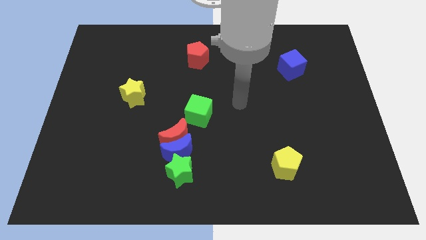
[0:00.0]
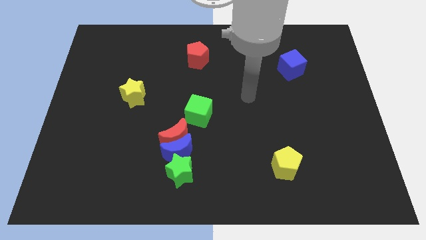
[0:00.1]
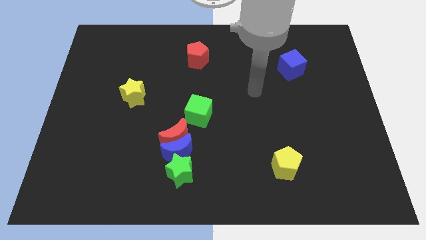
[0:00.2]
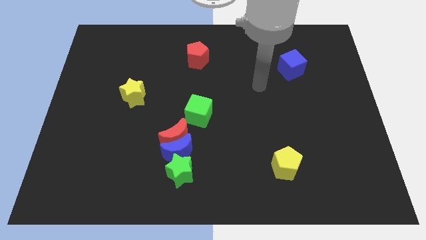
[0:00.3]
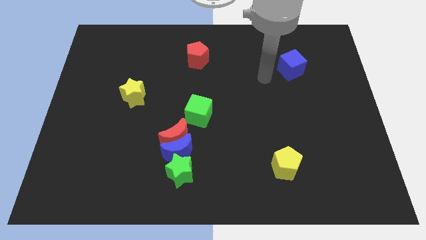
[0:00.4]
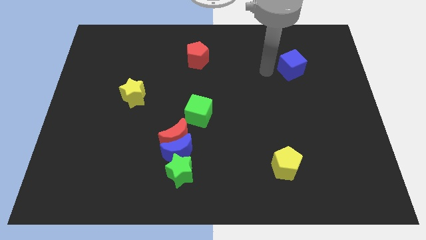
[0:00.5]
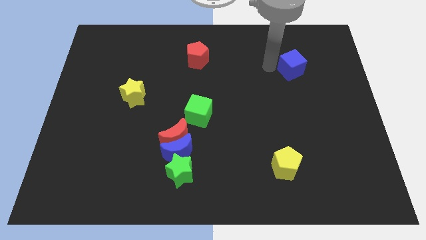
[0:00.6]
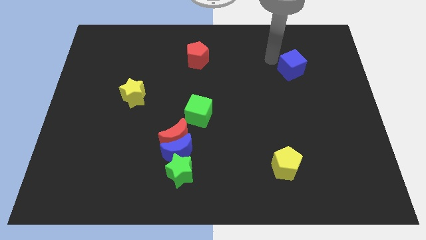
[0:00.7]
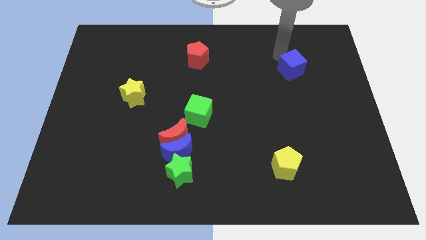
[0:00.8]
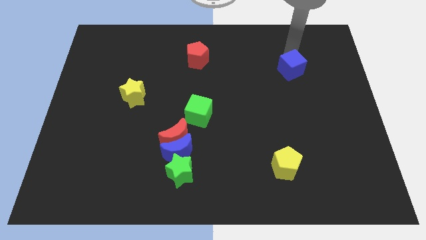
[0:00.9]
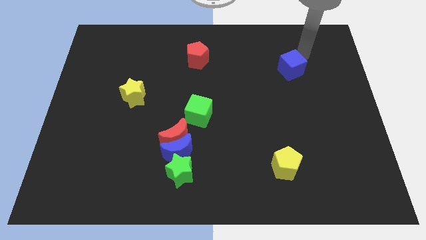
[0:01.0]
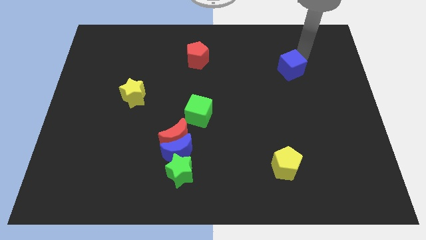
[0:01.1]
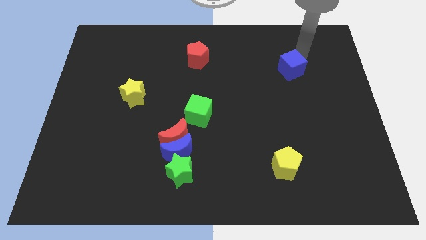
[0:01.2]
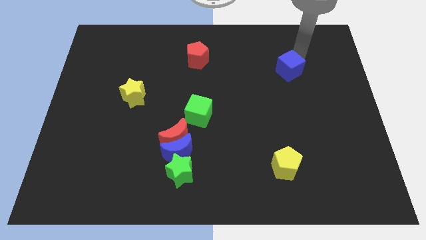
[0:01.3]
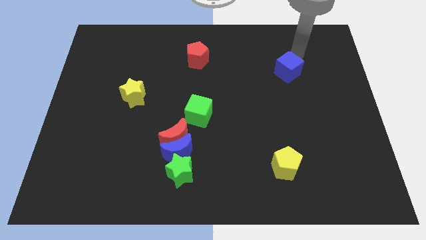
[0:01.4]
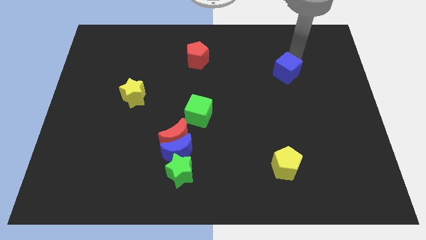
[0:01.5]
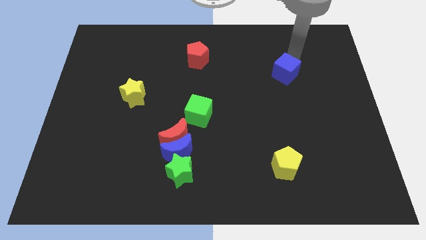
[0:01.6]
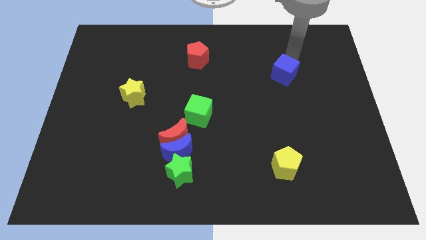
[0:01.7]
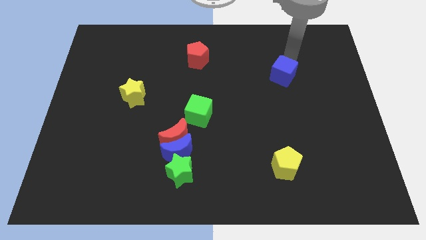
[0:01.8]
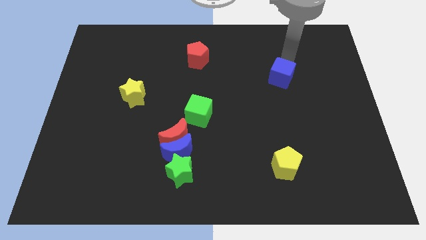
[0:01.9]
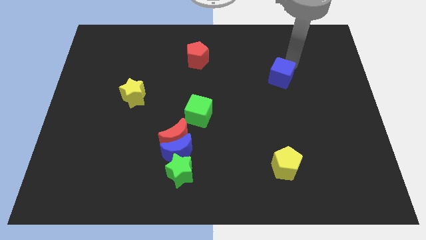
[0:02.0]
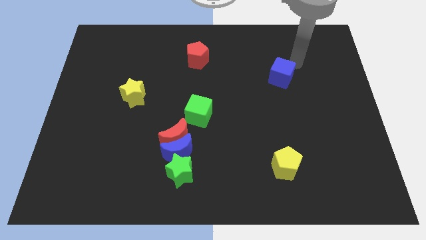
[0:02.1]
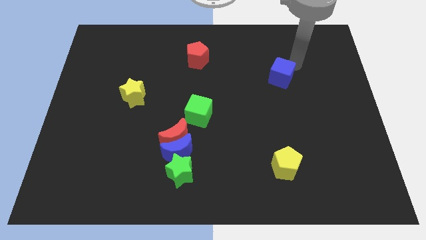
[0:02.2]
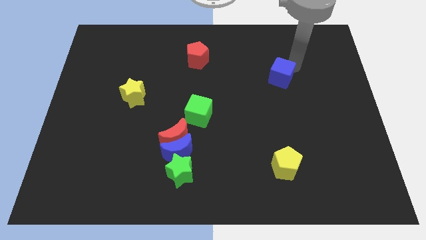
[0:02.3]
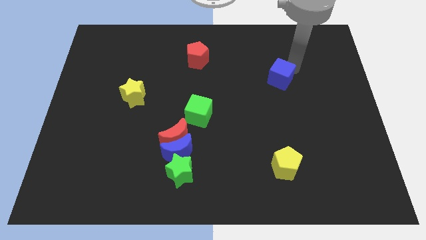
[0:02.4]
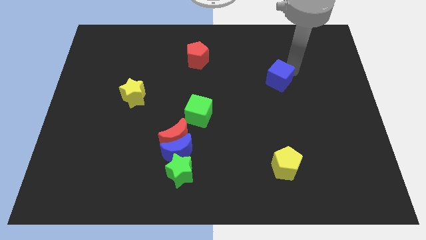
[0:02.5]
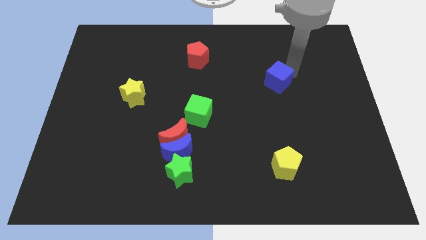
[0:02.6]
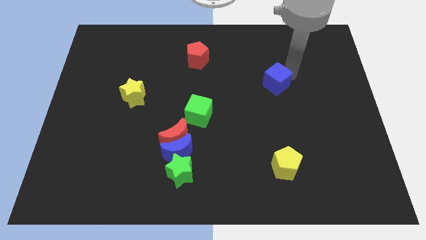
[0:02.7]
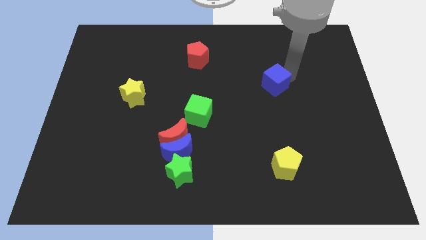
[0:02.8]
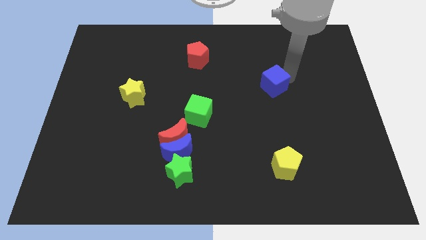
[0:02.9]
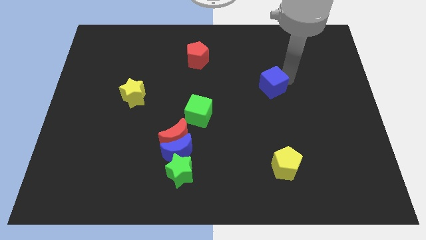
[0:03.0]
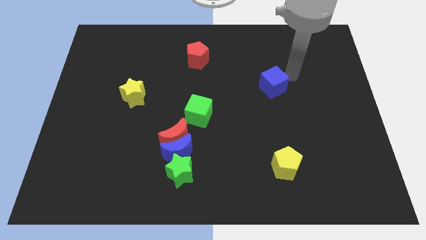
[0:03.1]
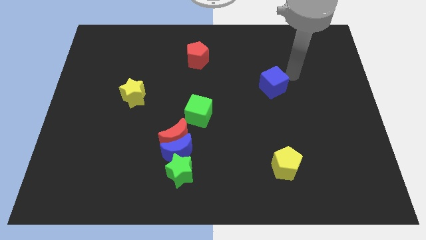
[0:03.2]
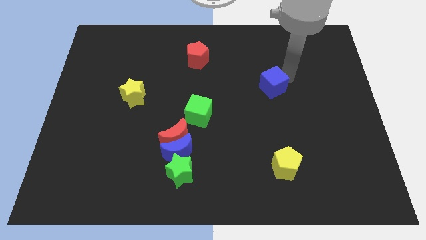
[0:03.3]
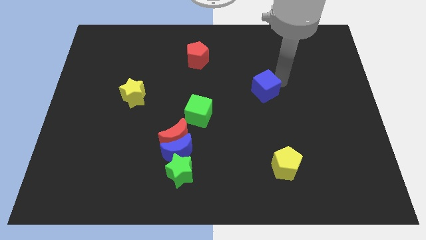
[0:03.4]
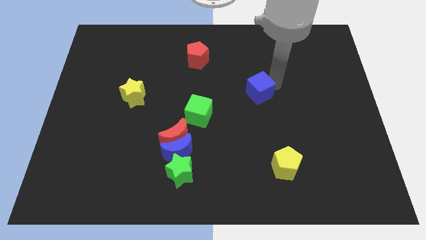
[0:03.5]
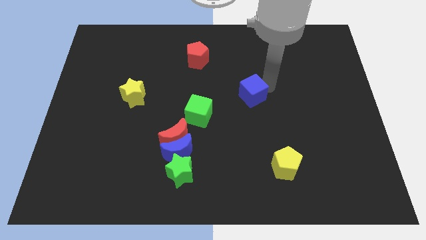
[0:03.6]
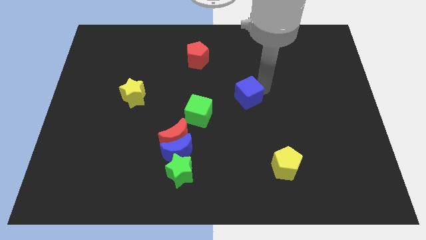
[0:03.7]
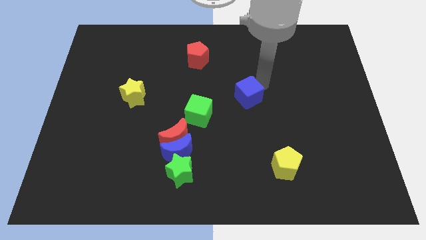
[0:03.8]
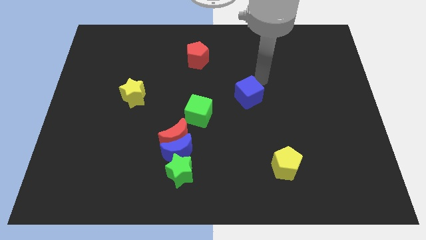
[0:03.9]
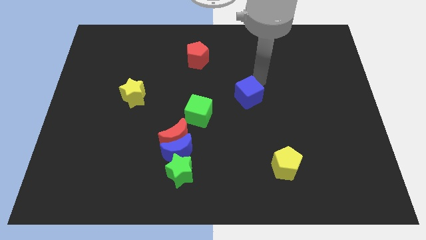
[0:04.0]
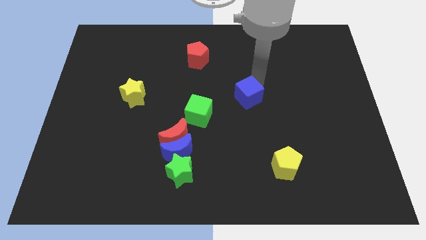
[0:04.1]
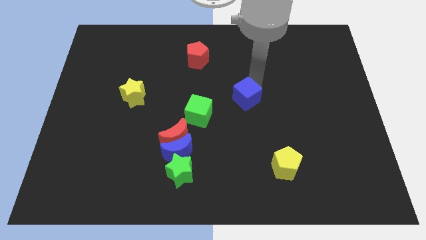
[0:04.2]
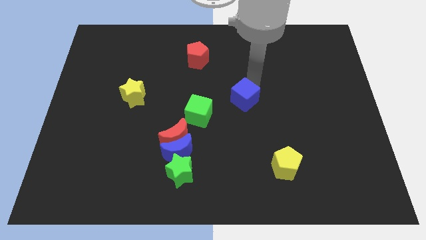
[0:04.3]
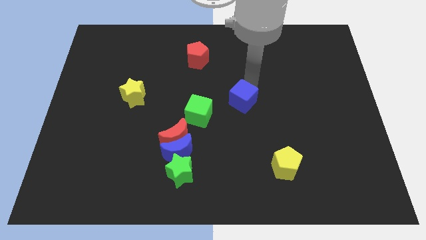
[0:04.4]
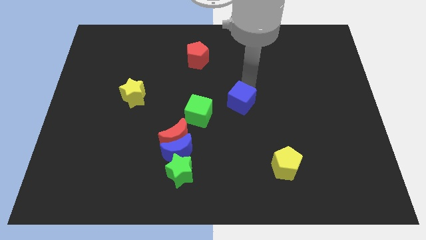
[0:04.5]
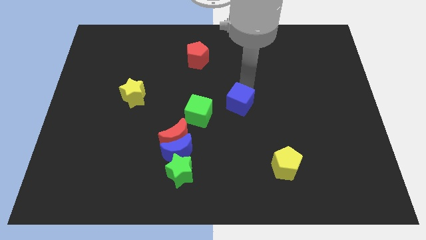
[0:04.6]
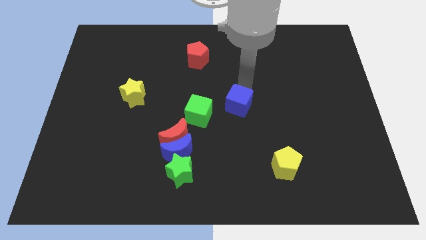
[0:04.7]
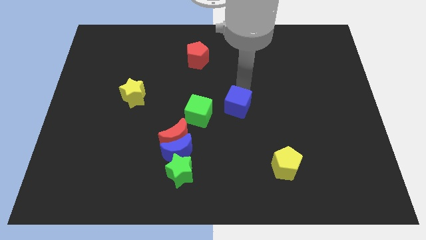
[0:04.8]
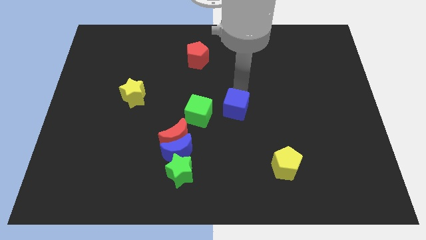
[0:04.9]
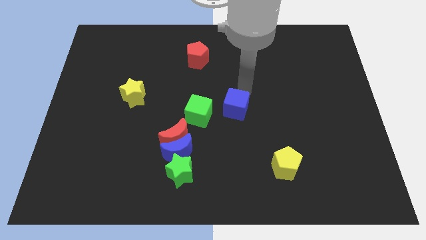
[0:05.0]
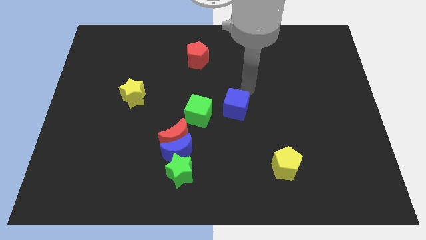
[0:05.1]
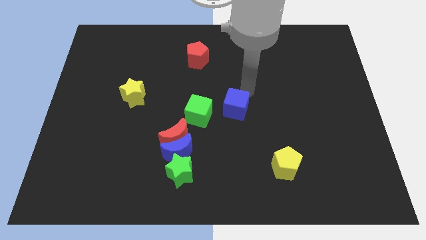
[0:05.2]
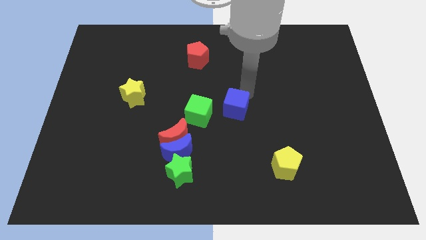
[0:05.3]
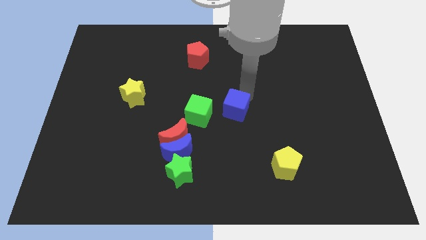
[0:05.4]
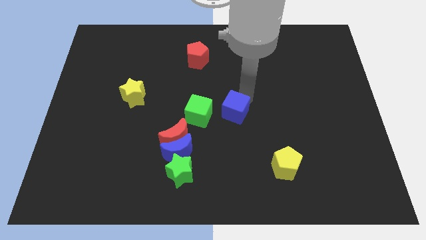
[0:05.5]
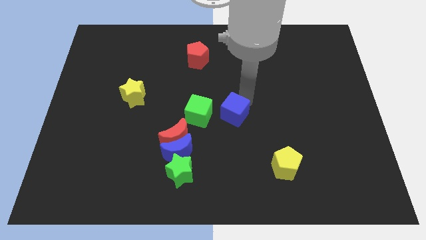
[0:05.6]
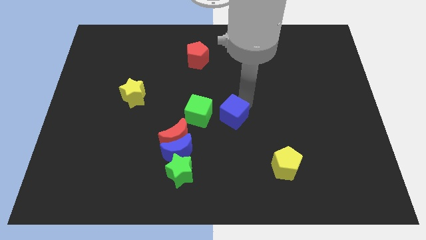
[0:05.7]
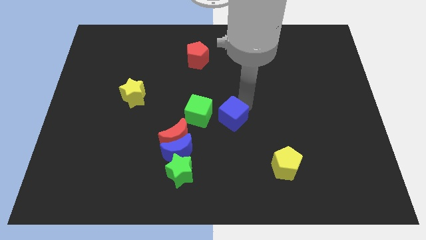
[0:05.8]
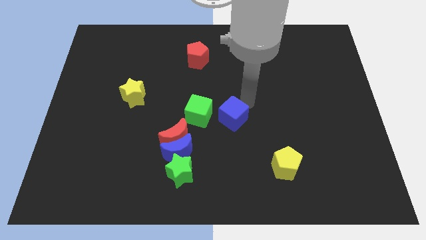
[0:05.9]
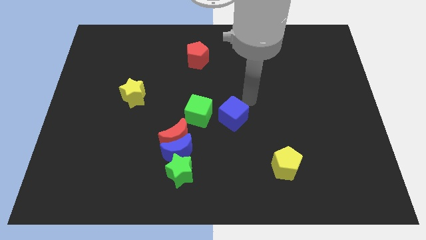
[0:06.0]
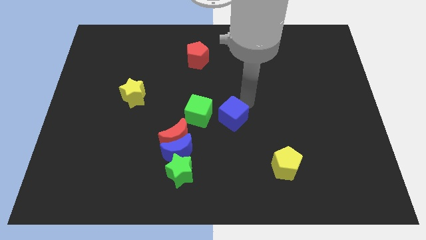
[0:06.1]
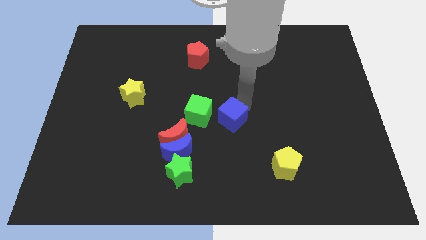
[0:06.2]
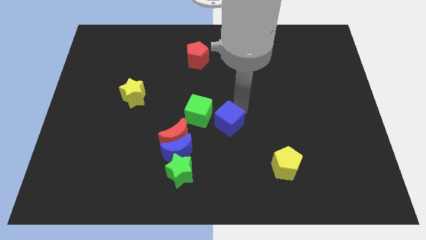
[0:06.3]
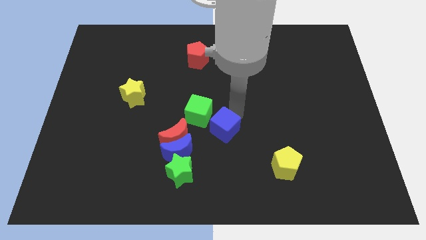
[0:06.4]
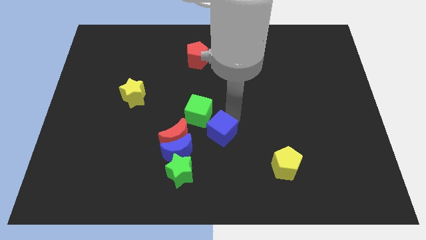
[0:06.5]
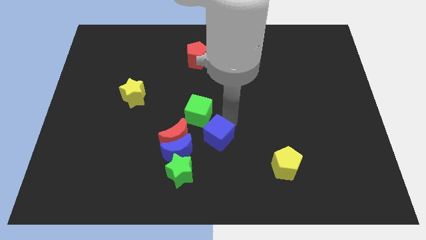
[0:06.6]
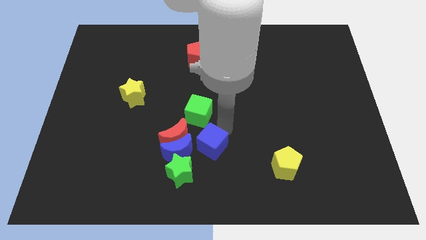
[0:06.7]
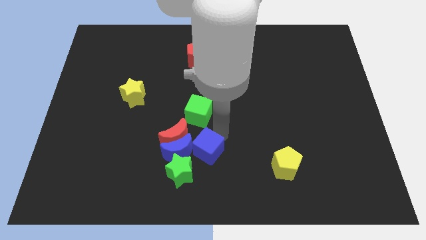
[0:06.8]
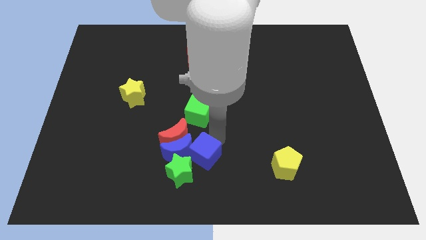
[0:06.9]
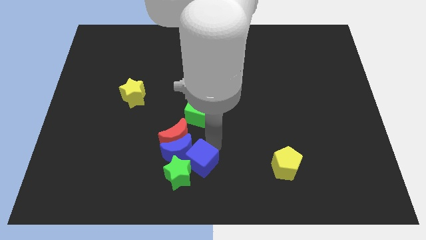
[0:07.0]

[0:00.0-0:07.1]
slide the blue cube next to the green star
